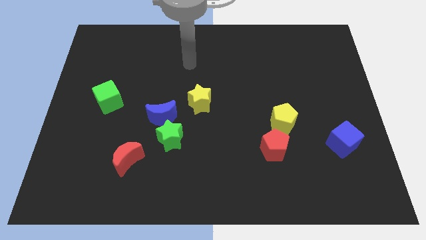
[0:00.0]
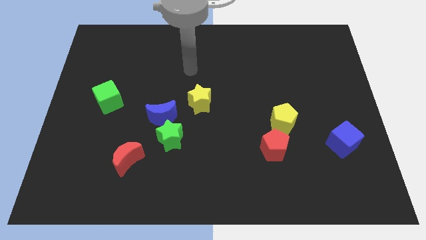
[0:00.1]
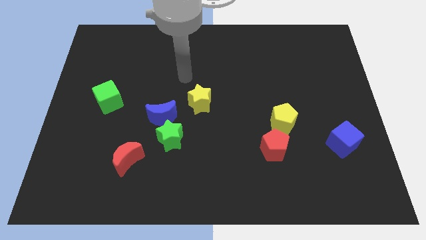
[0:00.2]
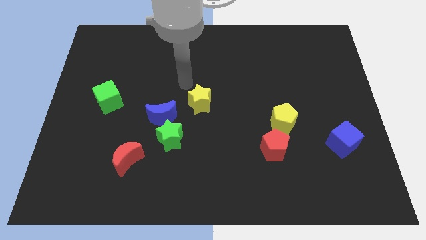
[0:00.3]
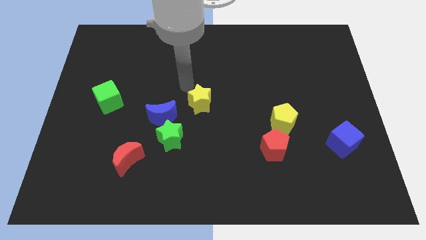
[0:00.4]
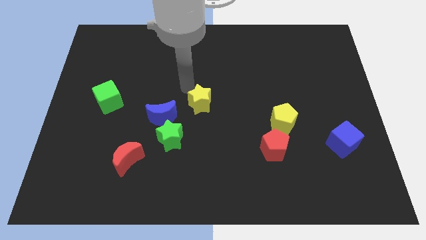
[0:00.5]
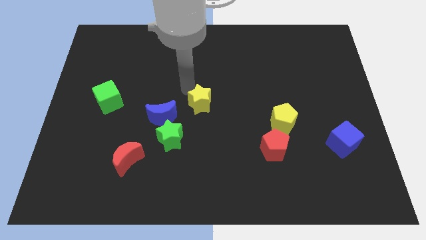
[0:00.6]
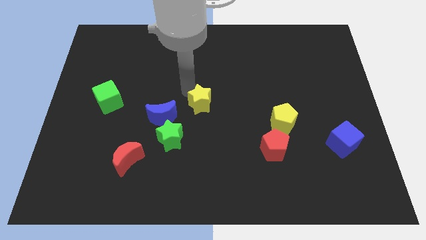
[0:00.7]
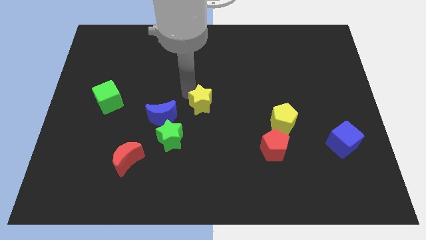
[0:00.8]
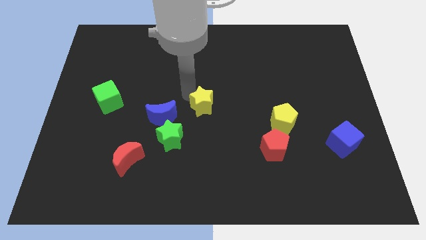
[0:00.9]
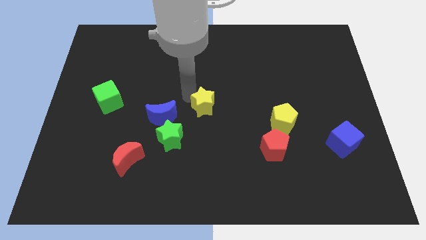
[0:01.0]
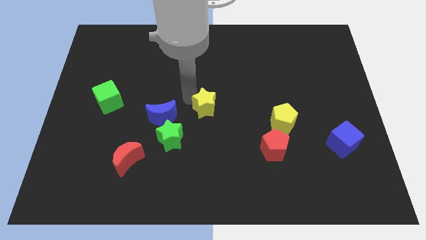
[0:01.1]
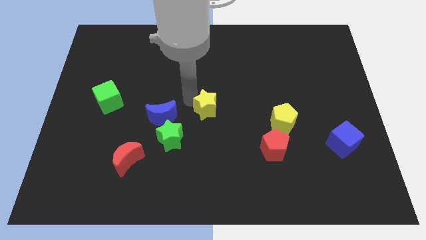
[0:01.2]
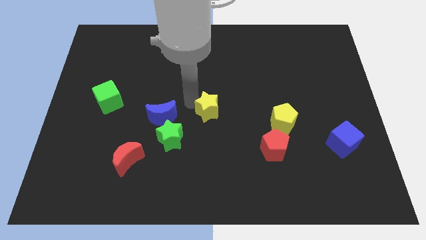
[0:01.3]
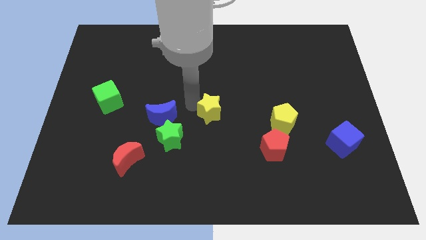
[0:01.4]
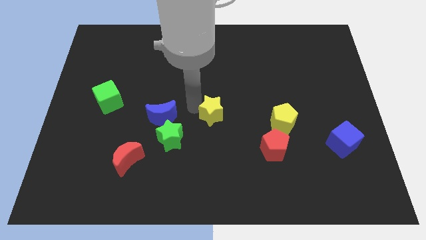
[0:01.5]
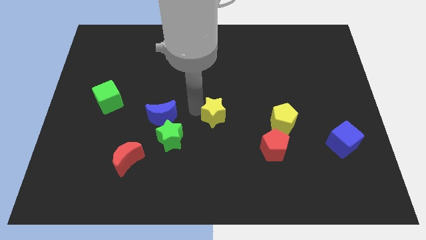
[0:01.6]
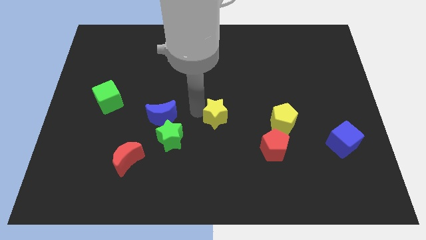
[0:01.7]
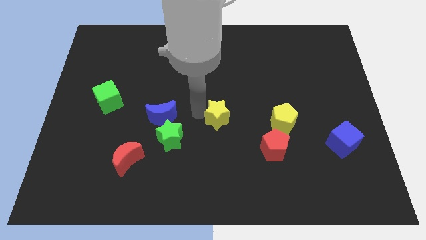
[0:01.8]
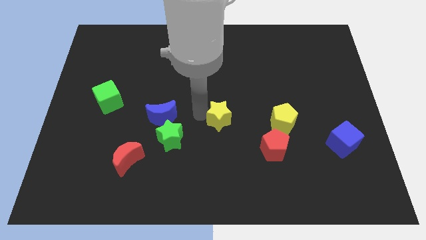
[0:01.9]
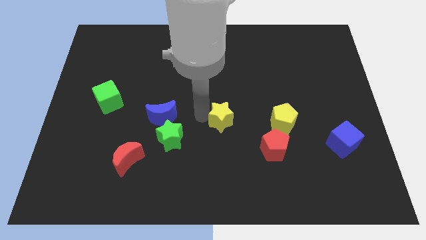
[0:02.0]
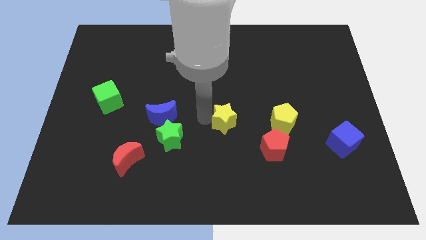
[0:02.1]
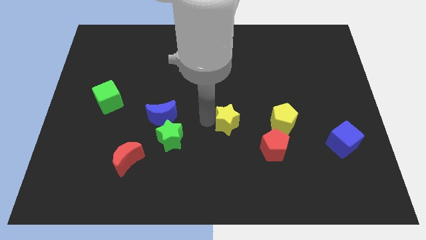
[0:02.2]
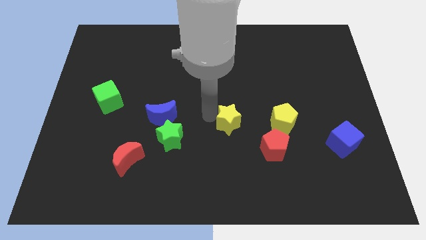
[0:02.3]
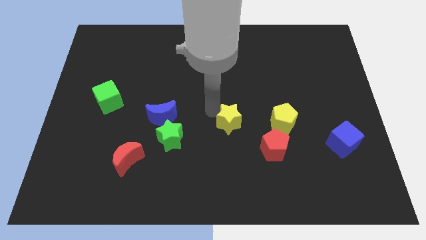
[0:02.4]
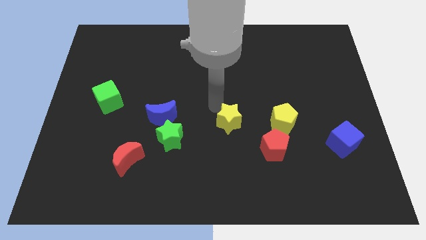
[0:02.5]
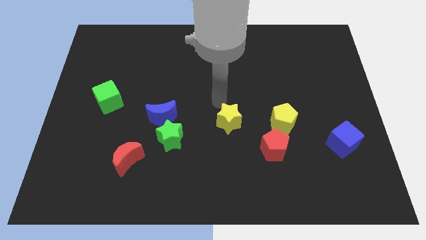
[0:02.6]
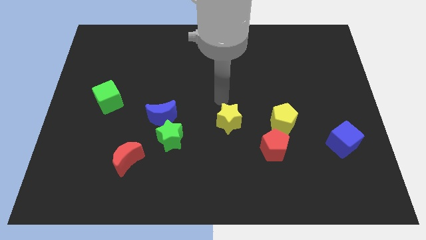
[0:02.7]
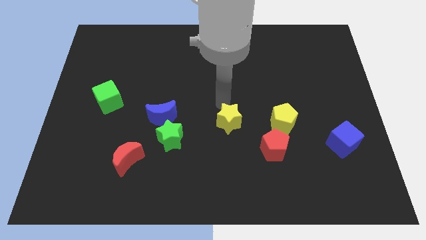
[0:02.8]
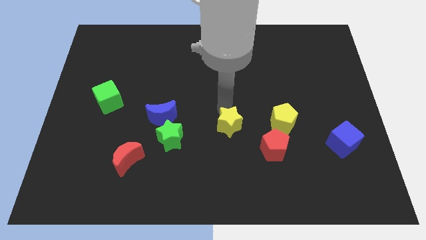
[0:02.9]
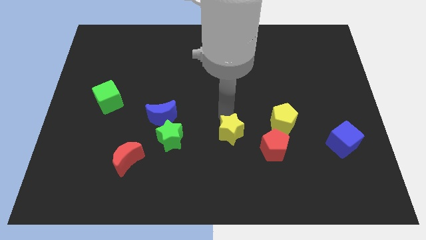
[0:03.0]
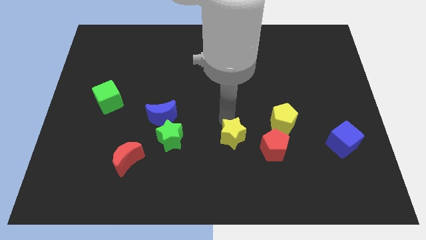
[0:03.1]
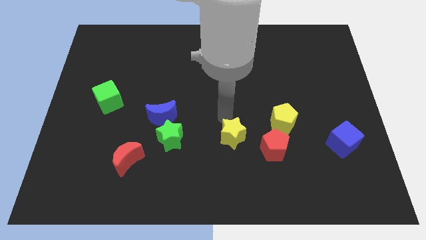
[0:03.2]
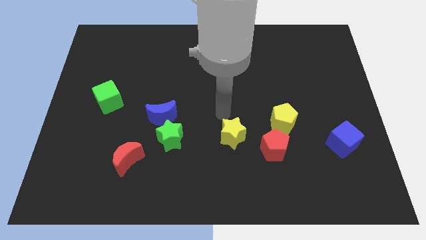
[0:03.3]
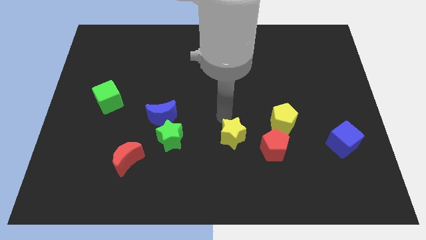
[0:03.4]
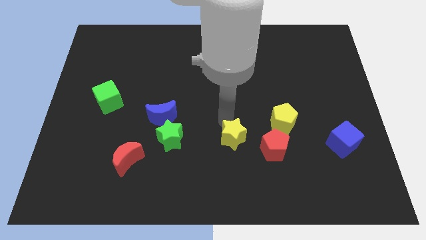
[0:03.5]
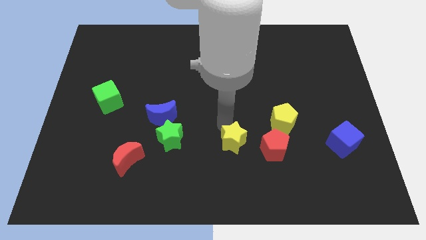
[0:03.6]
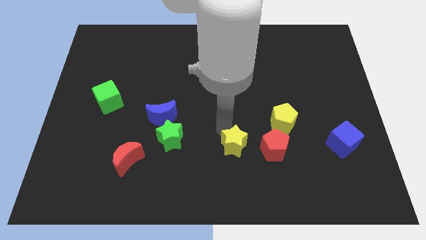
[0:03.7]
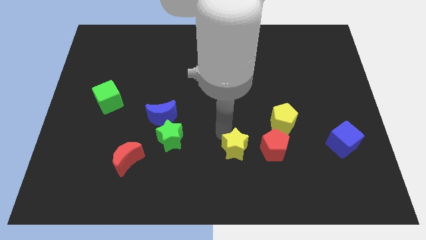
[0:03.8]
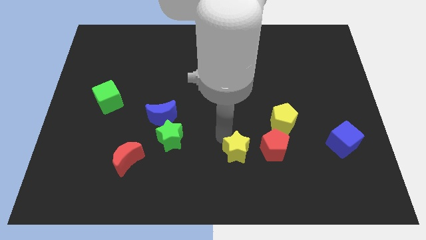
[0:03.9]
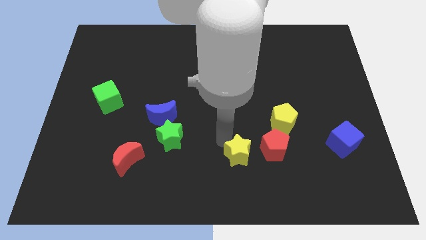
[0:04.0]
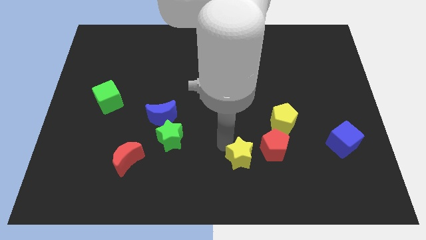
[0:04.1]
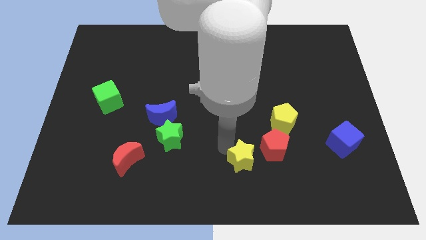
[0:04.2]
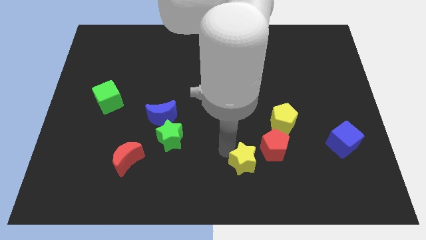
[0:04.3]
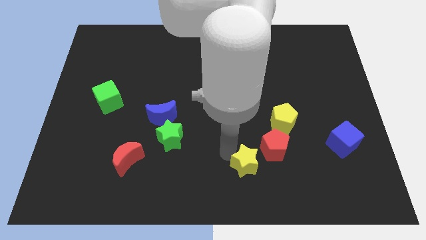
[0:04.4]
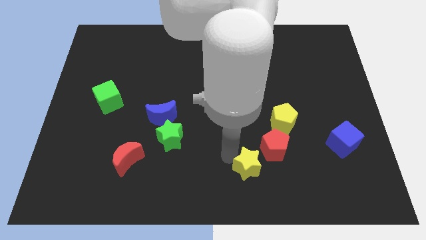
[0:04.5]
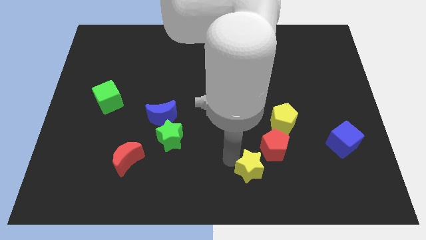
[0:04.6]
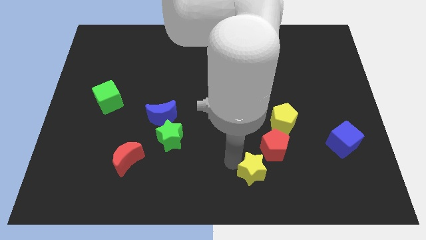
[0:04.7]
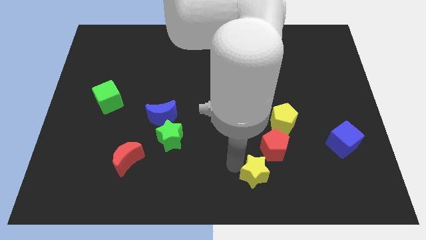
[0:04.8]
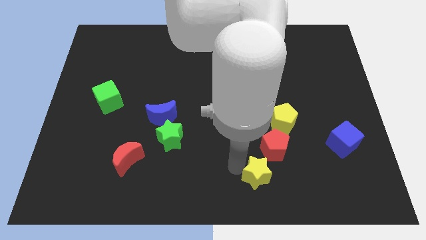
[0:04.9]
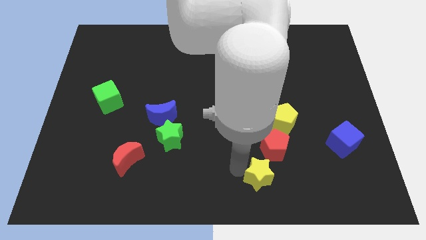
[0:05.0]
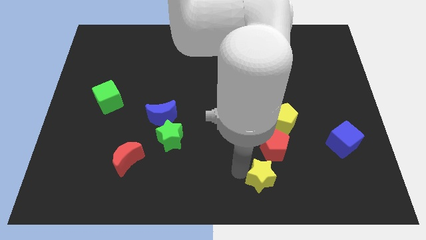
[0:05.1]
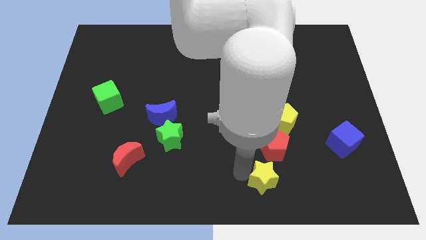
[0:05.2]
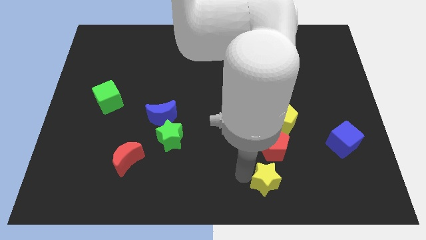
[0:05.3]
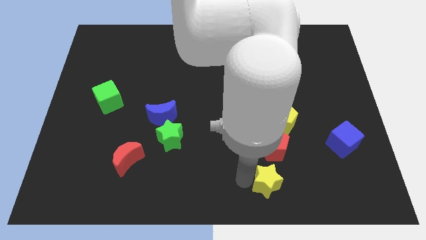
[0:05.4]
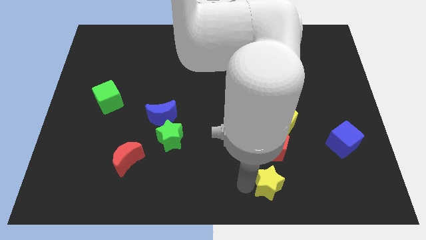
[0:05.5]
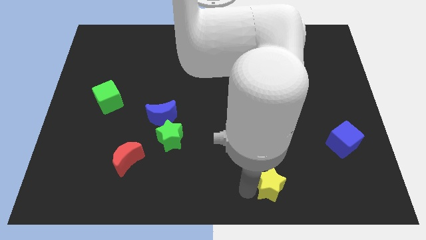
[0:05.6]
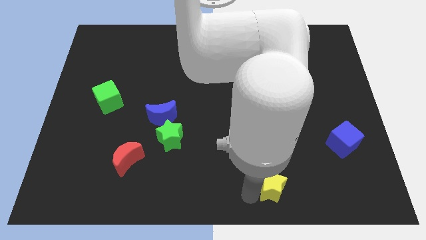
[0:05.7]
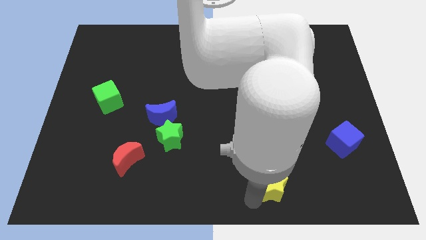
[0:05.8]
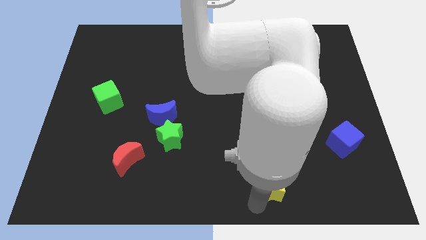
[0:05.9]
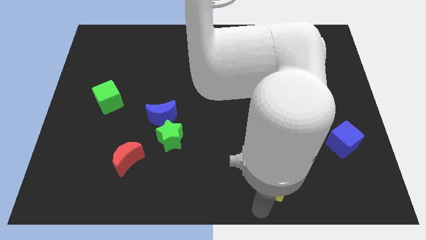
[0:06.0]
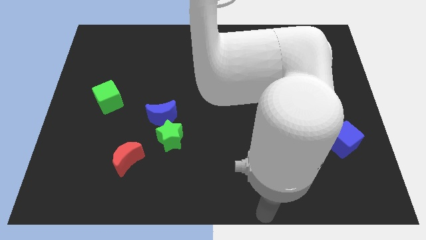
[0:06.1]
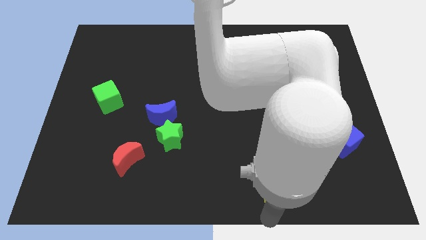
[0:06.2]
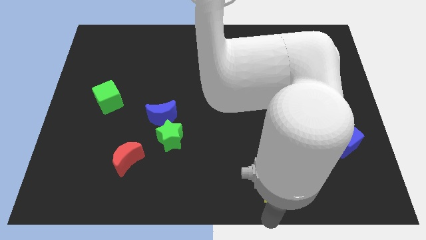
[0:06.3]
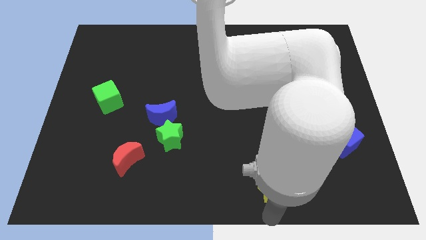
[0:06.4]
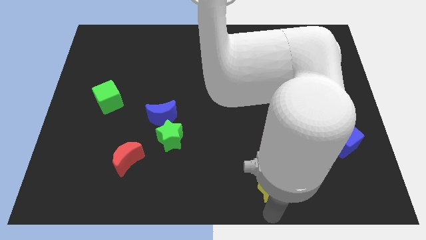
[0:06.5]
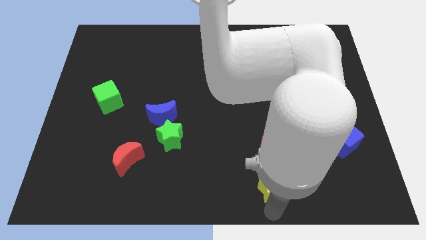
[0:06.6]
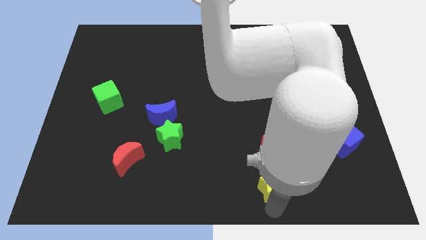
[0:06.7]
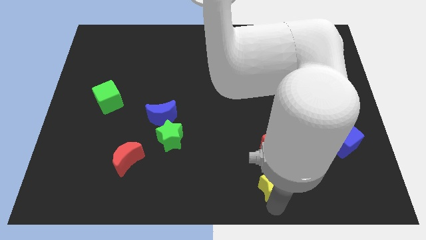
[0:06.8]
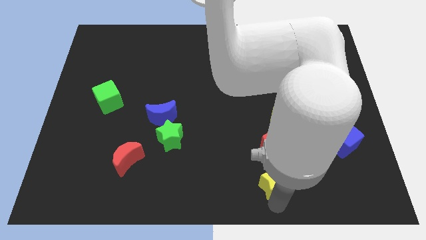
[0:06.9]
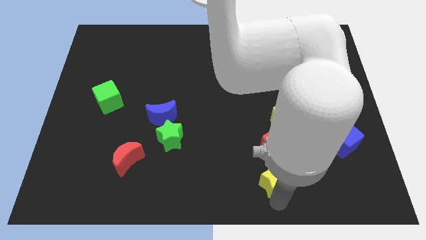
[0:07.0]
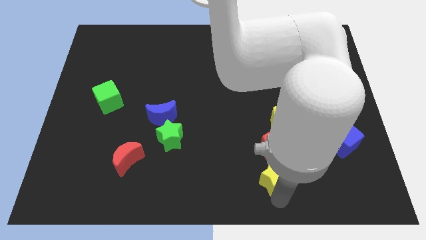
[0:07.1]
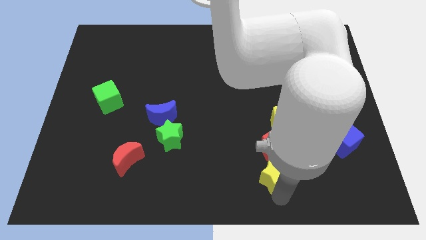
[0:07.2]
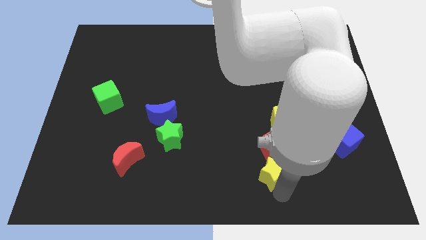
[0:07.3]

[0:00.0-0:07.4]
slide the yellow star to the bottom right of the red pentagon

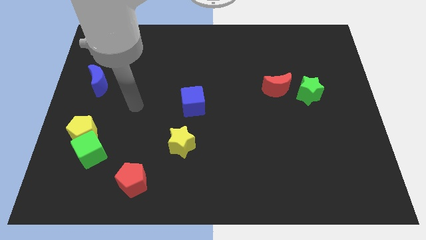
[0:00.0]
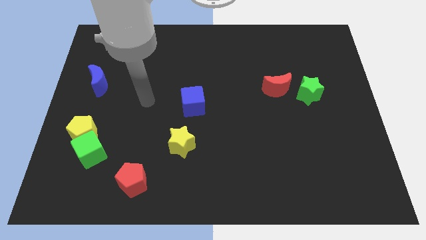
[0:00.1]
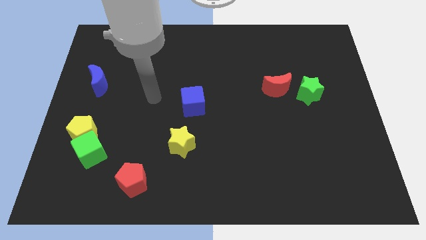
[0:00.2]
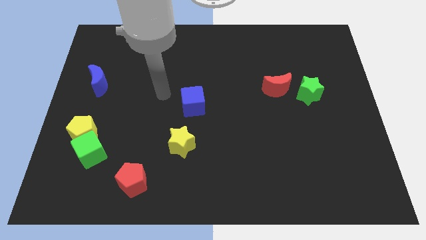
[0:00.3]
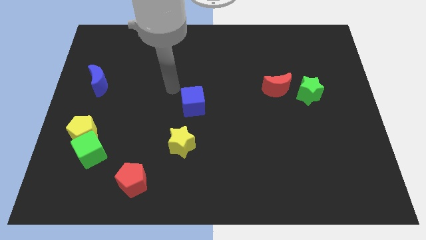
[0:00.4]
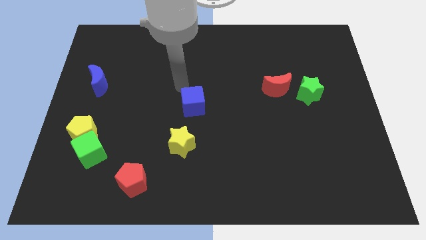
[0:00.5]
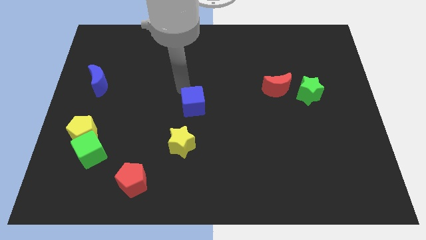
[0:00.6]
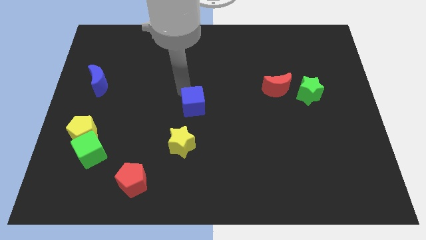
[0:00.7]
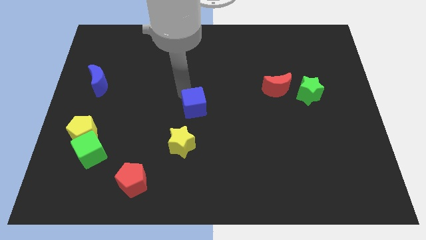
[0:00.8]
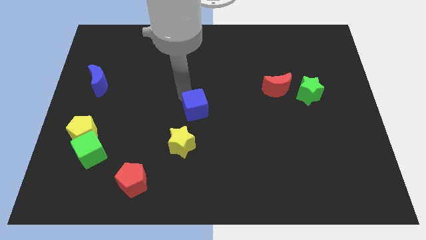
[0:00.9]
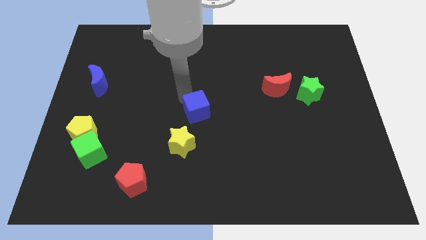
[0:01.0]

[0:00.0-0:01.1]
push the blue cube to the top right side of the yellow star
